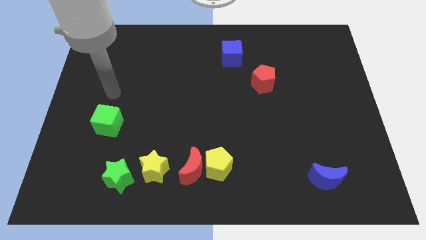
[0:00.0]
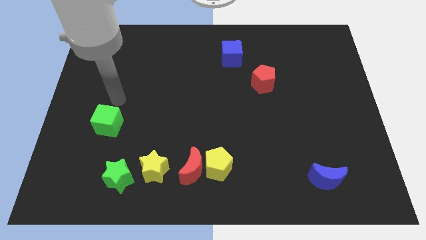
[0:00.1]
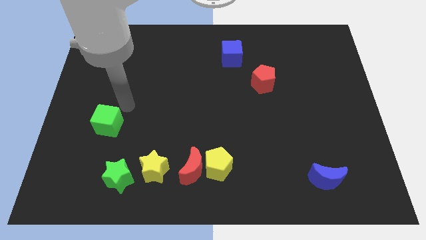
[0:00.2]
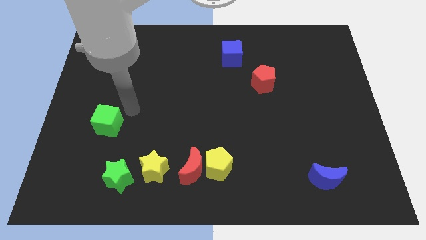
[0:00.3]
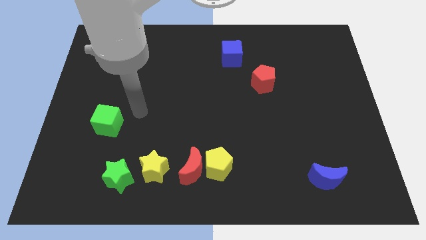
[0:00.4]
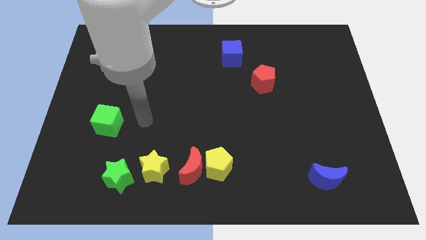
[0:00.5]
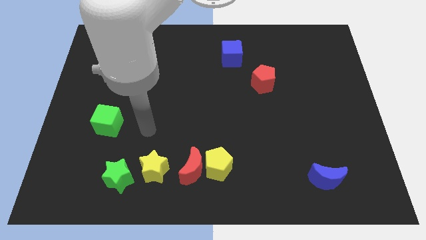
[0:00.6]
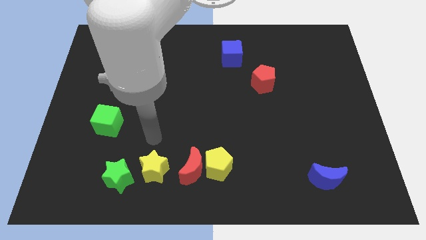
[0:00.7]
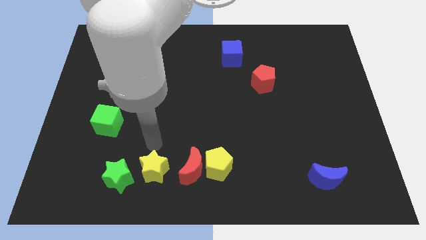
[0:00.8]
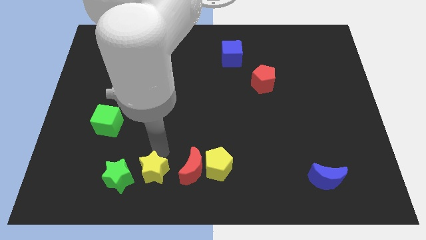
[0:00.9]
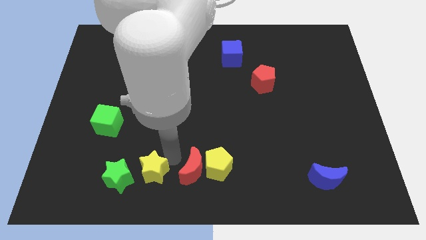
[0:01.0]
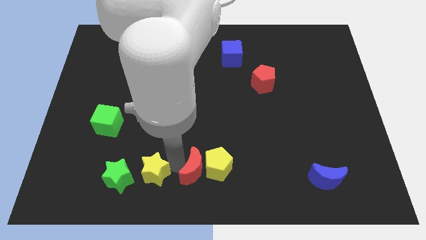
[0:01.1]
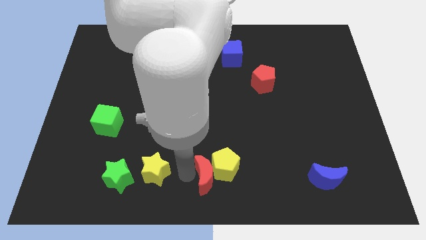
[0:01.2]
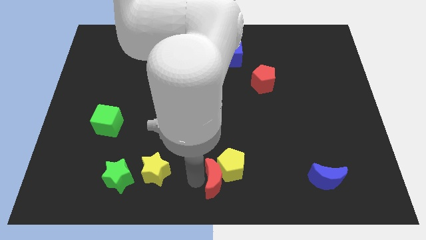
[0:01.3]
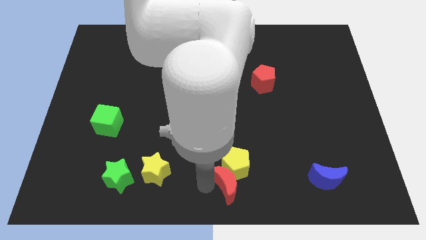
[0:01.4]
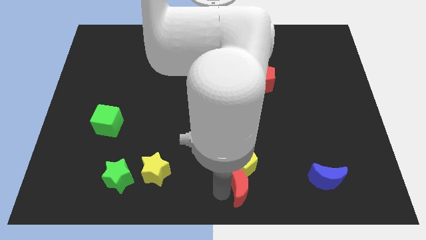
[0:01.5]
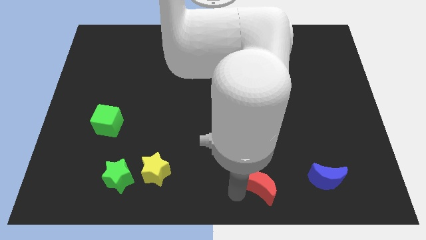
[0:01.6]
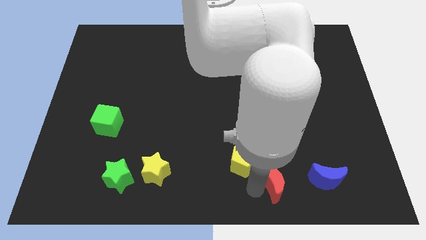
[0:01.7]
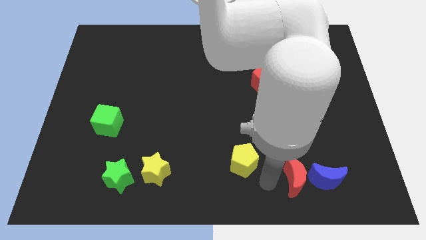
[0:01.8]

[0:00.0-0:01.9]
pull the yellow pentagon apart from the red moon

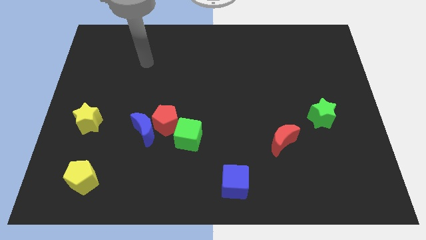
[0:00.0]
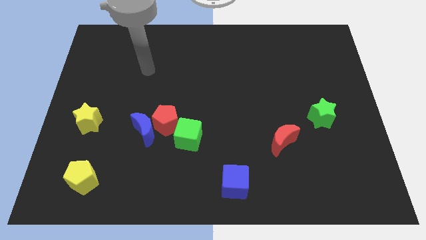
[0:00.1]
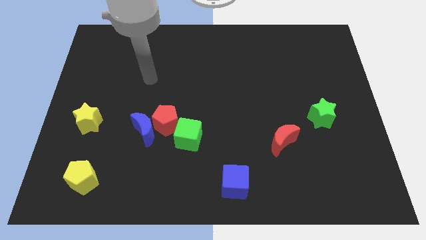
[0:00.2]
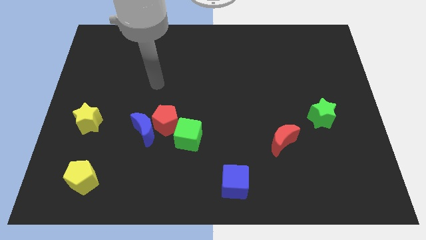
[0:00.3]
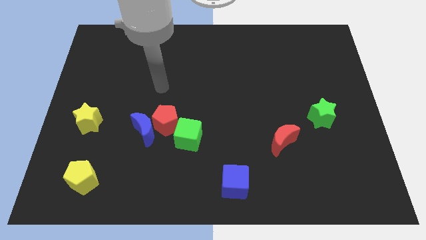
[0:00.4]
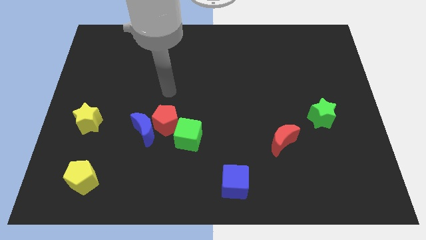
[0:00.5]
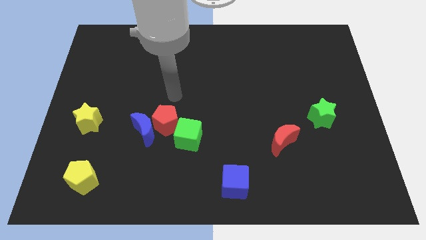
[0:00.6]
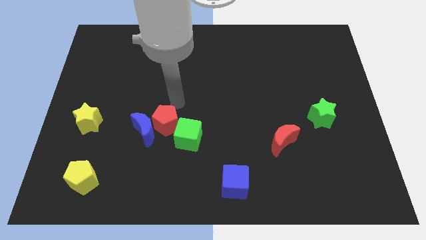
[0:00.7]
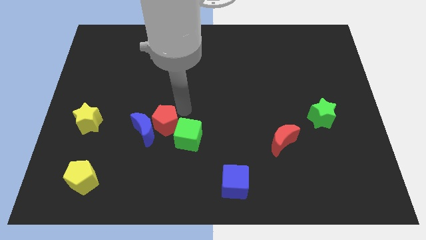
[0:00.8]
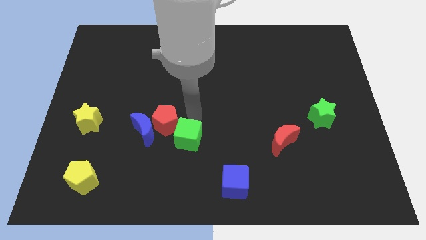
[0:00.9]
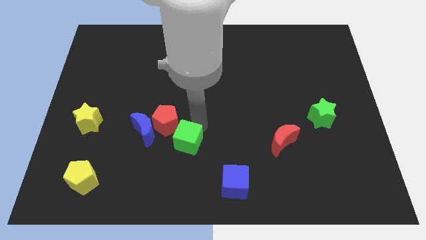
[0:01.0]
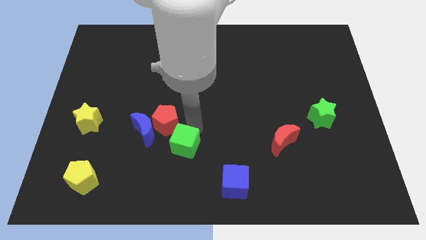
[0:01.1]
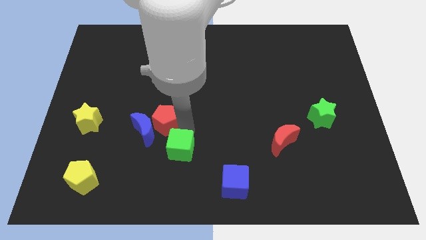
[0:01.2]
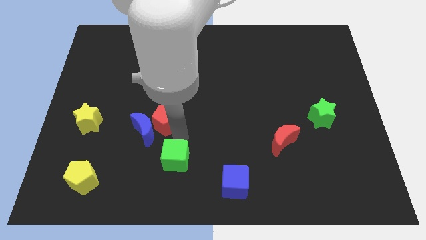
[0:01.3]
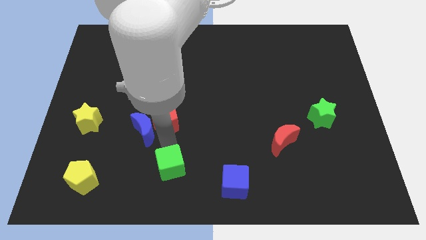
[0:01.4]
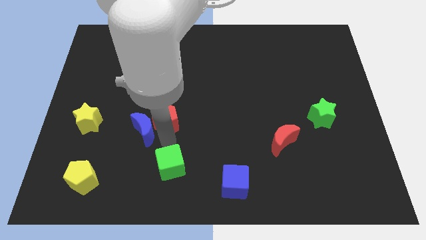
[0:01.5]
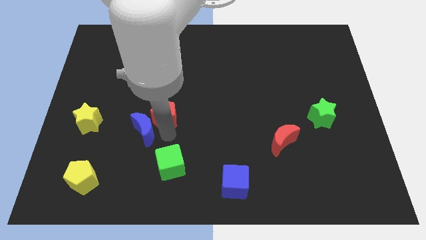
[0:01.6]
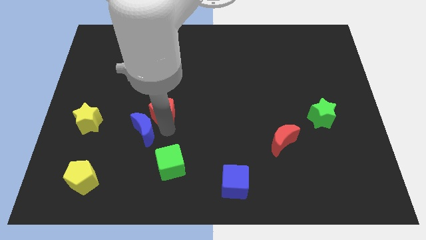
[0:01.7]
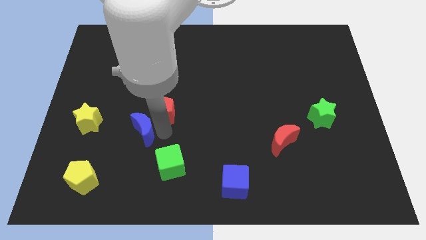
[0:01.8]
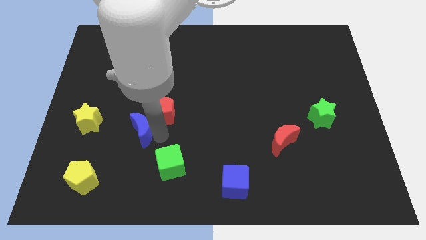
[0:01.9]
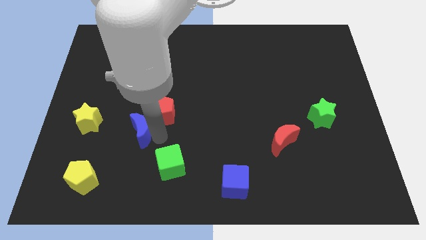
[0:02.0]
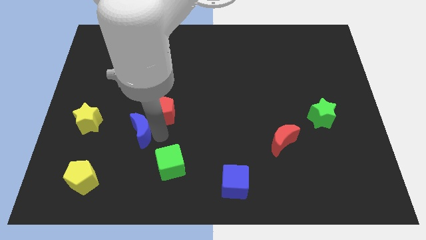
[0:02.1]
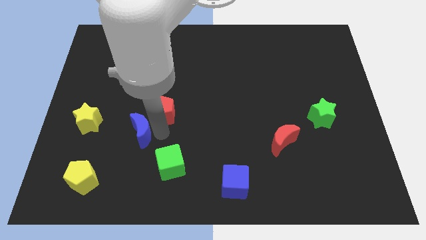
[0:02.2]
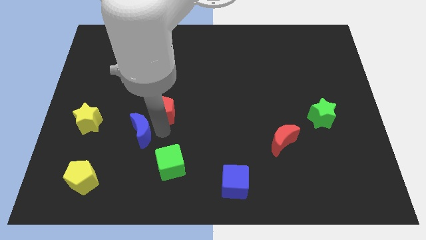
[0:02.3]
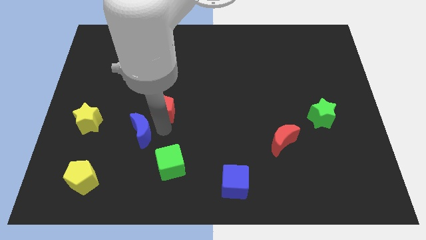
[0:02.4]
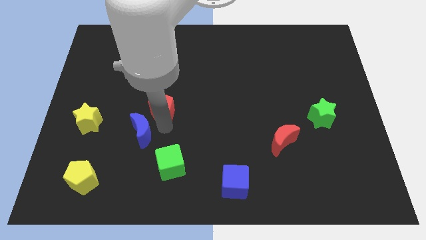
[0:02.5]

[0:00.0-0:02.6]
move the red pentagon away from the blue moon and green cube

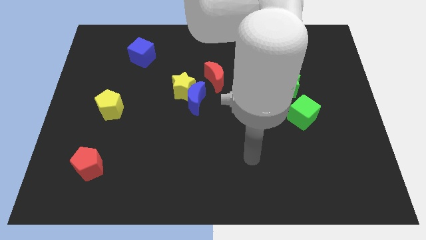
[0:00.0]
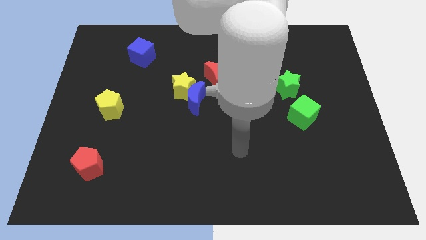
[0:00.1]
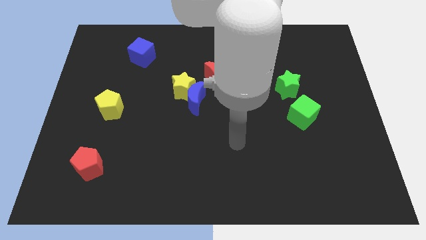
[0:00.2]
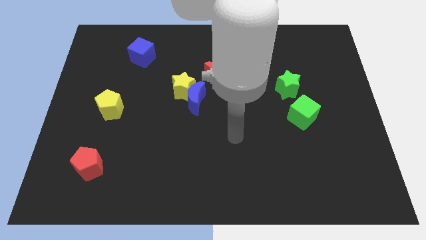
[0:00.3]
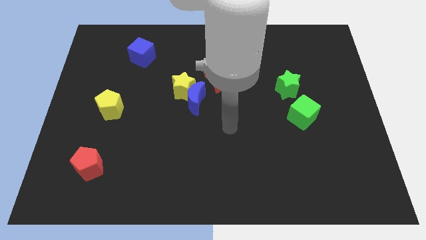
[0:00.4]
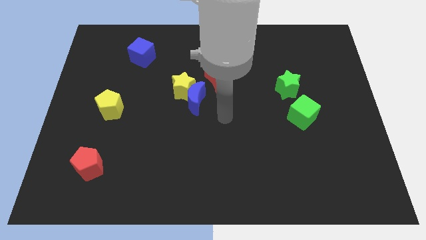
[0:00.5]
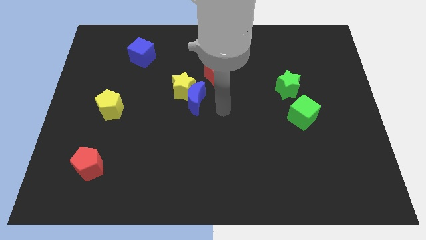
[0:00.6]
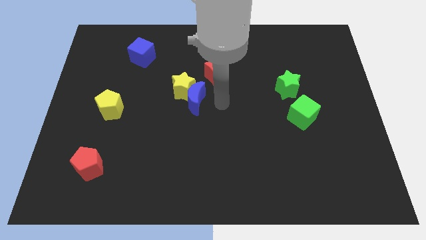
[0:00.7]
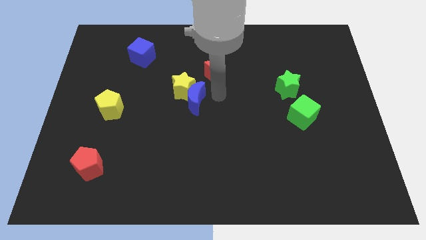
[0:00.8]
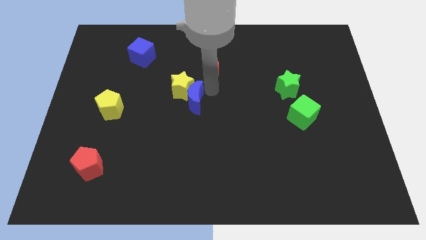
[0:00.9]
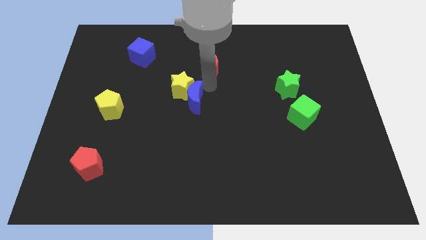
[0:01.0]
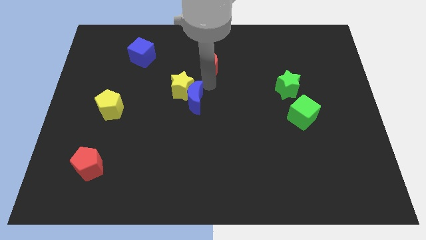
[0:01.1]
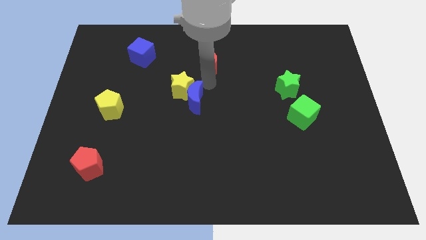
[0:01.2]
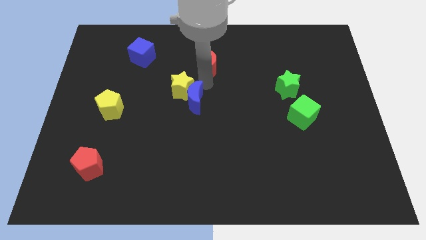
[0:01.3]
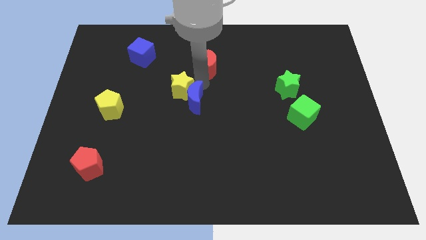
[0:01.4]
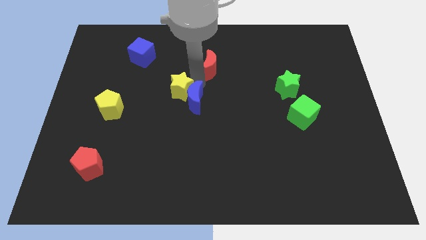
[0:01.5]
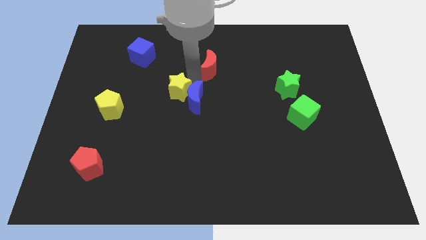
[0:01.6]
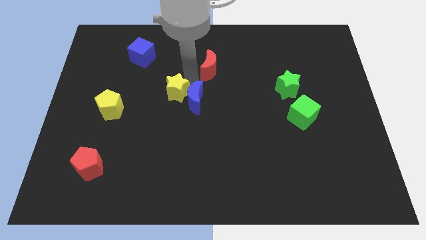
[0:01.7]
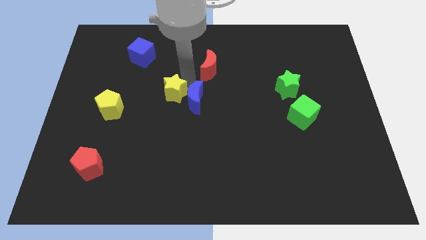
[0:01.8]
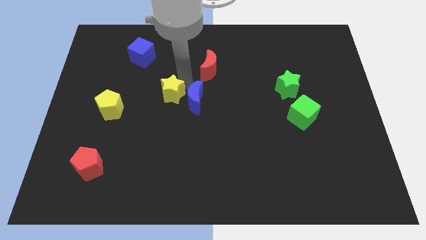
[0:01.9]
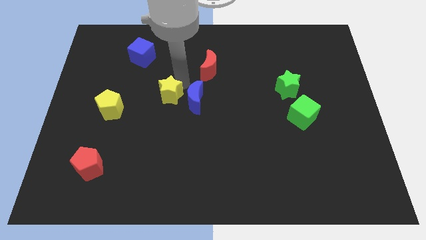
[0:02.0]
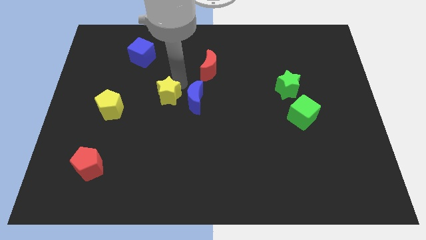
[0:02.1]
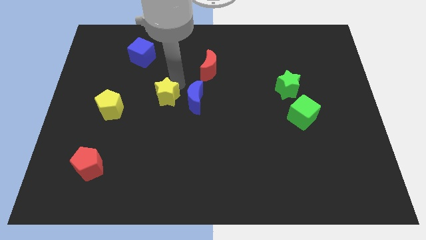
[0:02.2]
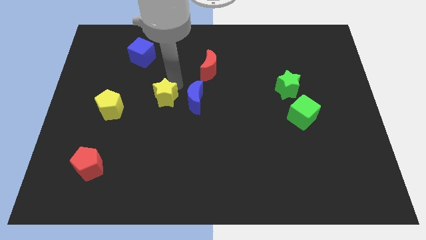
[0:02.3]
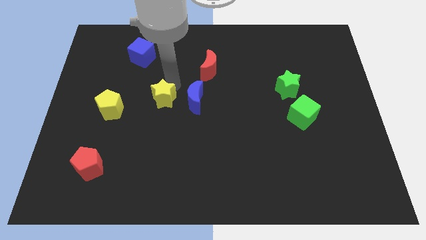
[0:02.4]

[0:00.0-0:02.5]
move the yellow star away from the blue moon and red moon

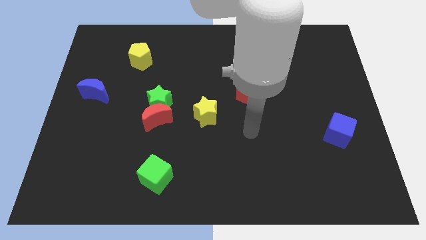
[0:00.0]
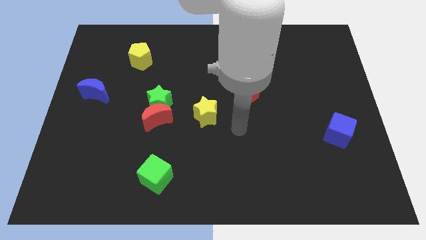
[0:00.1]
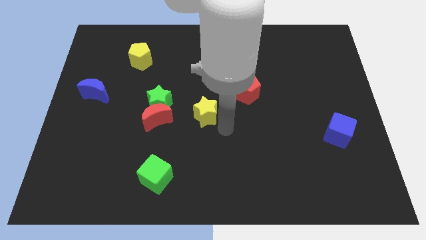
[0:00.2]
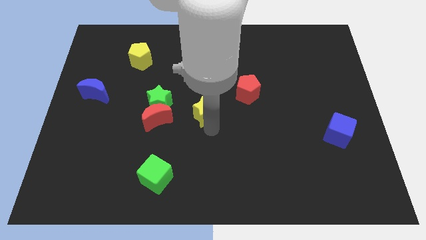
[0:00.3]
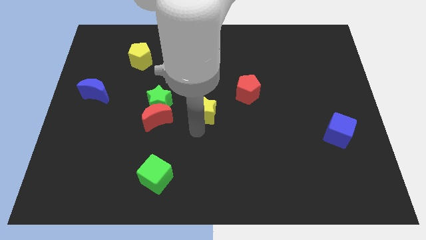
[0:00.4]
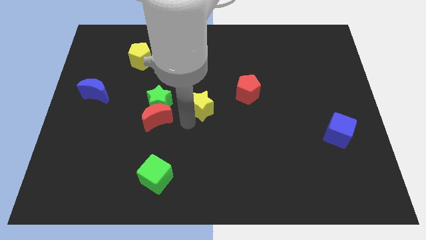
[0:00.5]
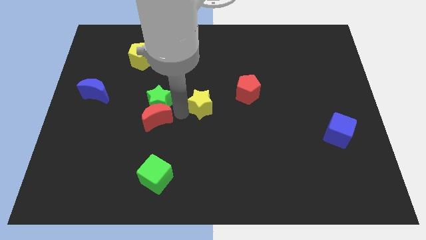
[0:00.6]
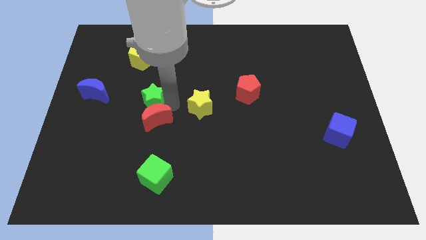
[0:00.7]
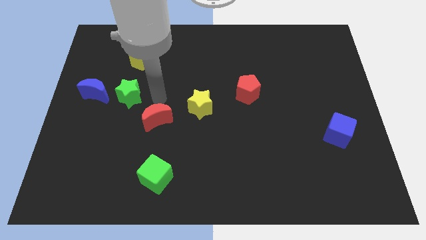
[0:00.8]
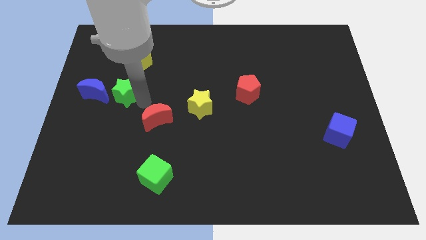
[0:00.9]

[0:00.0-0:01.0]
separate the red moon from the green star

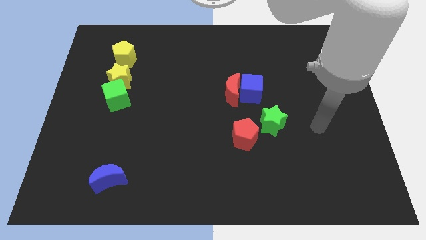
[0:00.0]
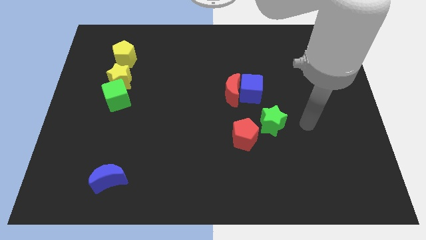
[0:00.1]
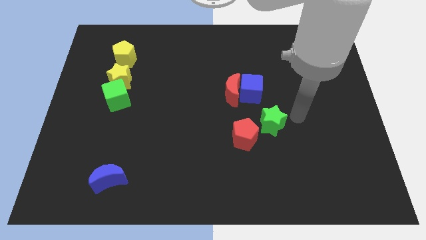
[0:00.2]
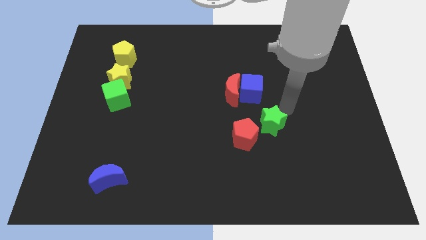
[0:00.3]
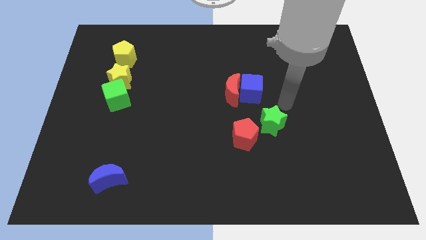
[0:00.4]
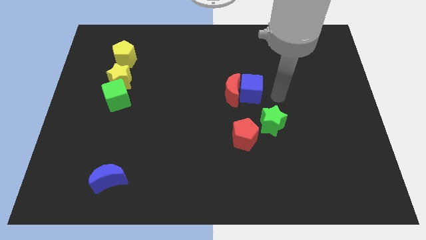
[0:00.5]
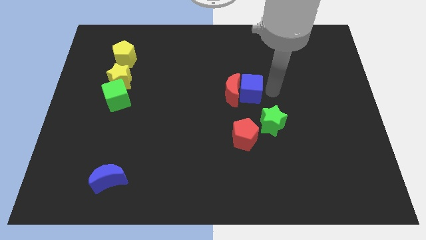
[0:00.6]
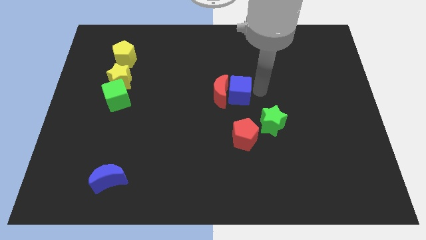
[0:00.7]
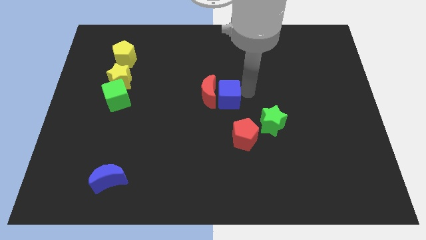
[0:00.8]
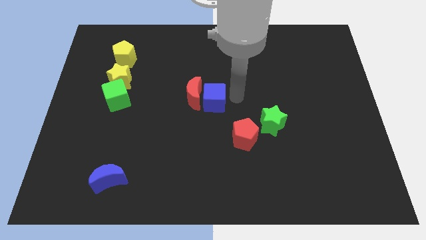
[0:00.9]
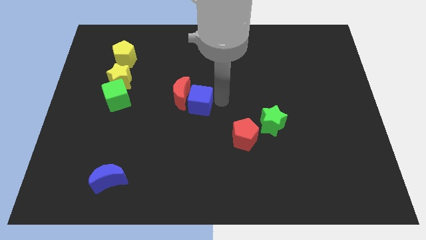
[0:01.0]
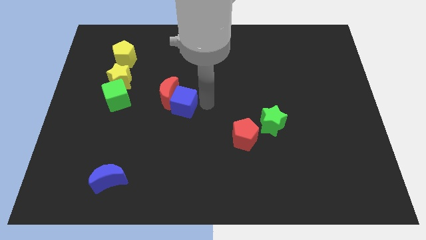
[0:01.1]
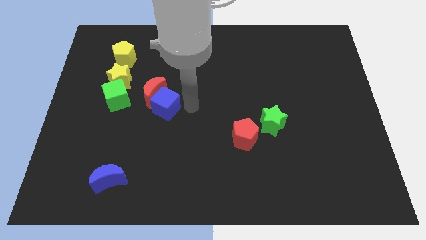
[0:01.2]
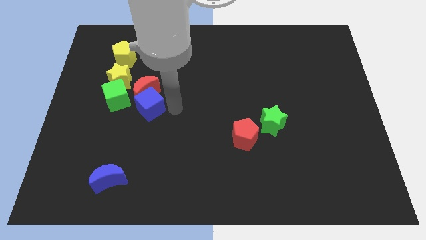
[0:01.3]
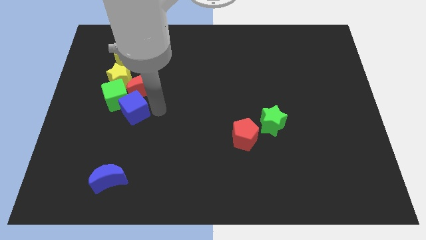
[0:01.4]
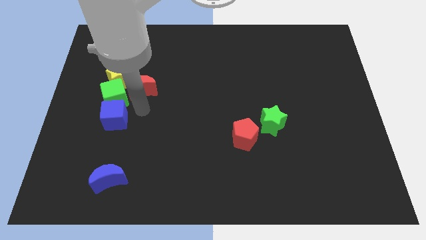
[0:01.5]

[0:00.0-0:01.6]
pull the red moon apart from the blue cube
